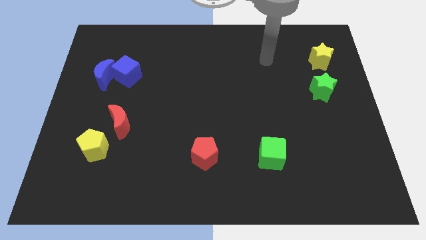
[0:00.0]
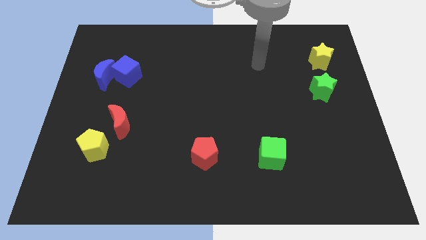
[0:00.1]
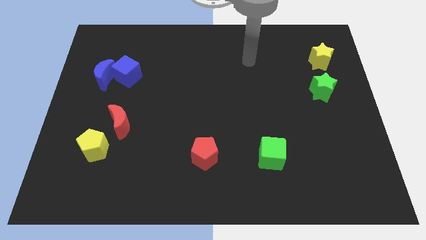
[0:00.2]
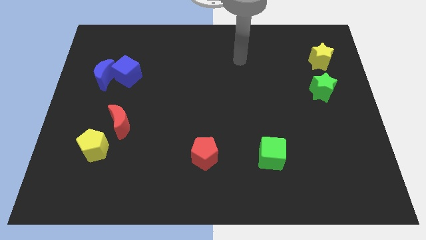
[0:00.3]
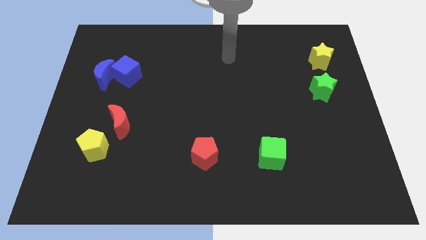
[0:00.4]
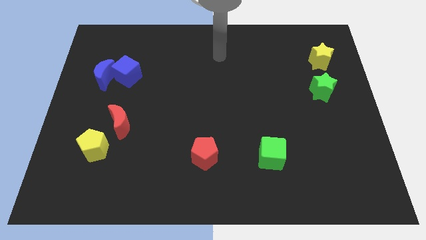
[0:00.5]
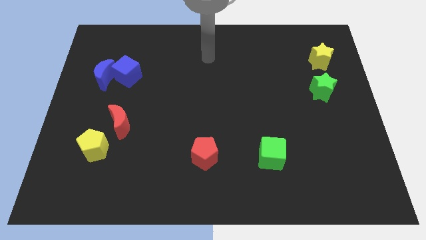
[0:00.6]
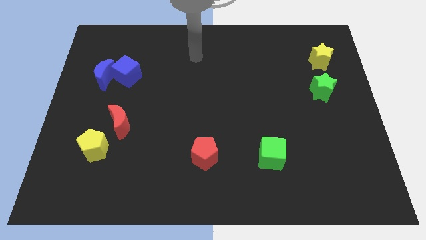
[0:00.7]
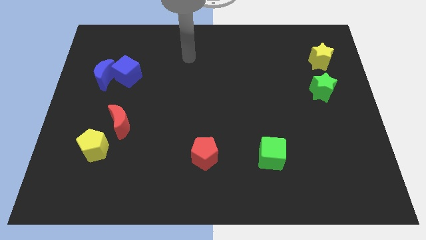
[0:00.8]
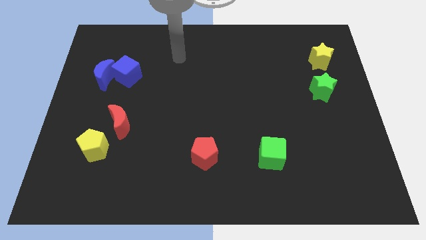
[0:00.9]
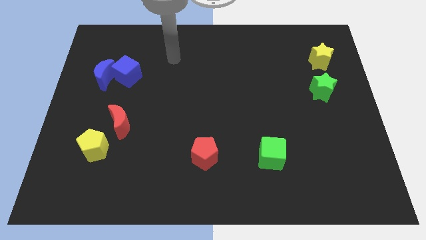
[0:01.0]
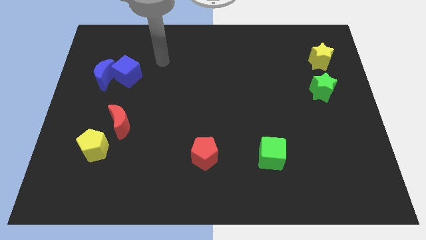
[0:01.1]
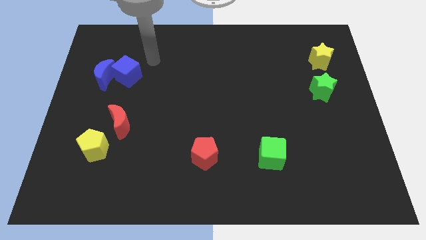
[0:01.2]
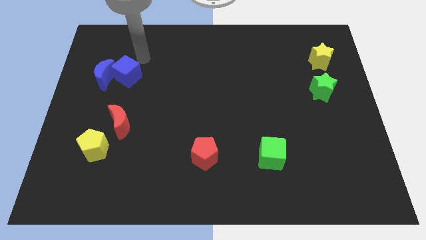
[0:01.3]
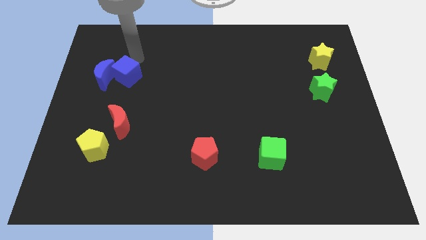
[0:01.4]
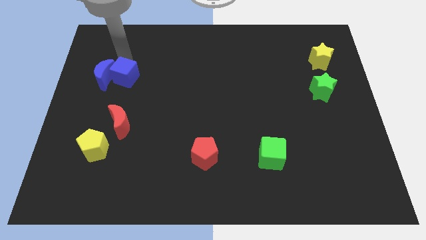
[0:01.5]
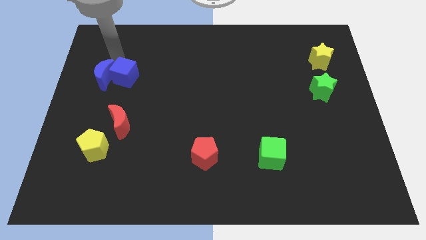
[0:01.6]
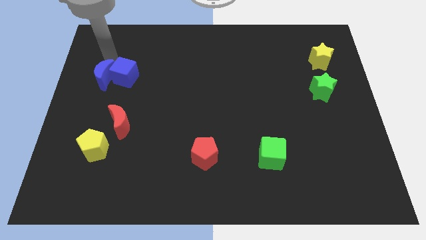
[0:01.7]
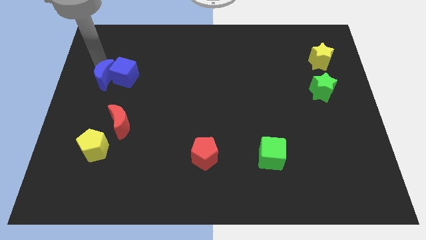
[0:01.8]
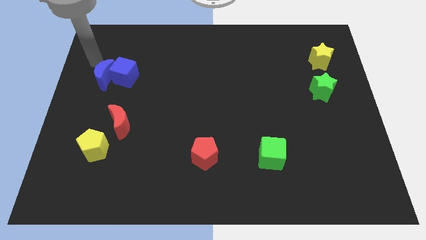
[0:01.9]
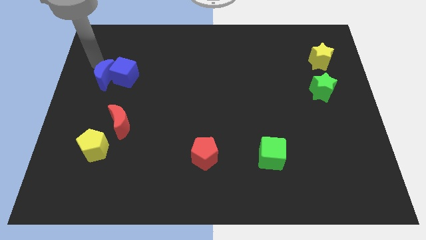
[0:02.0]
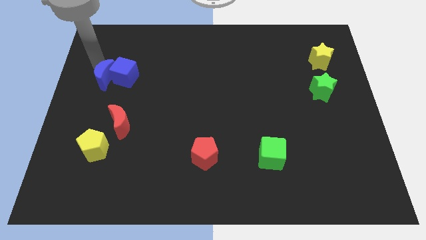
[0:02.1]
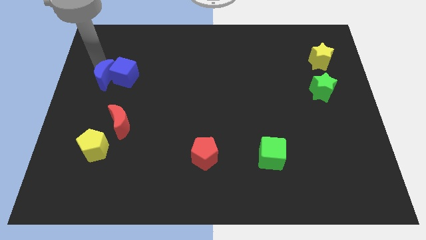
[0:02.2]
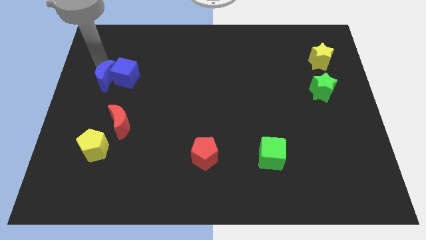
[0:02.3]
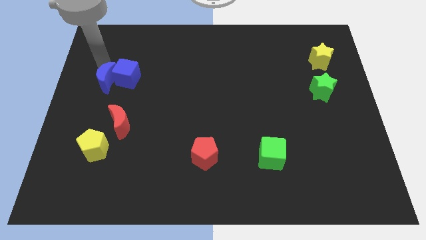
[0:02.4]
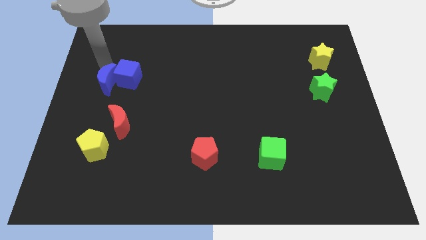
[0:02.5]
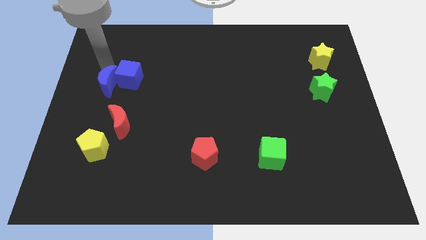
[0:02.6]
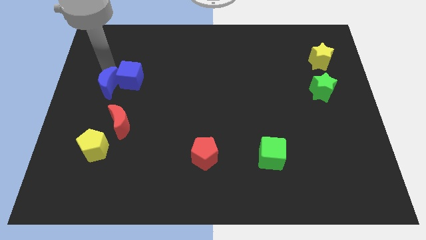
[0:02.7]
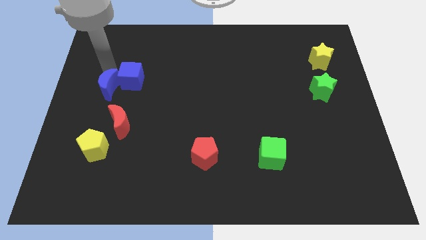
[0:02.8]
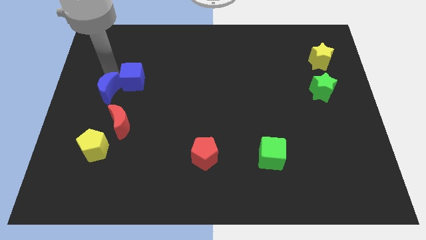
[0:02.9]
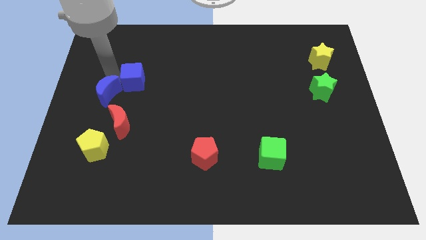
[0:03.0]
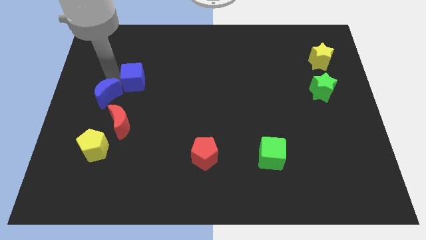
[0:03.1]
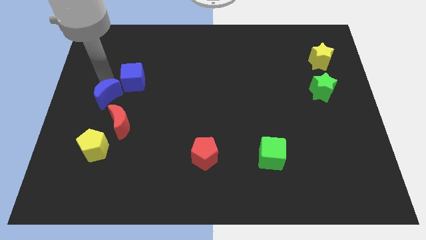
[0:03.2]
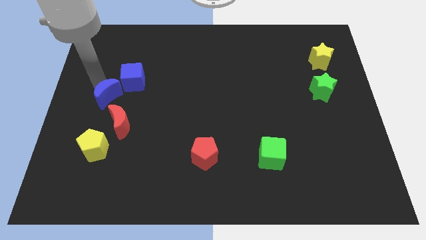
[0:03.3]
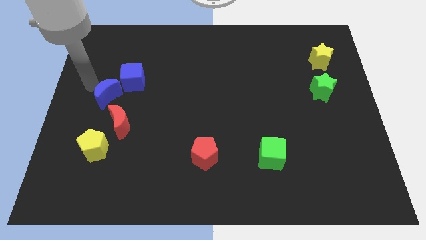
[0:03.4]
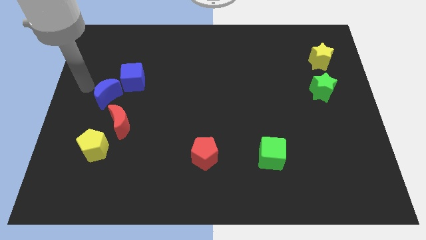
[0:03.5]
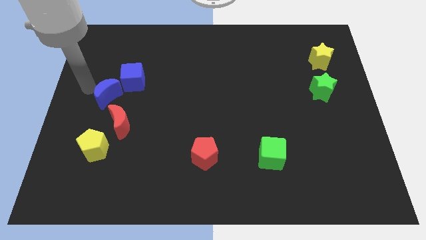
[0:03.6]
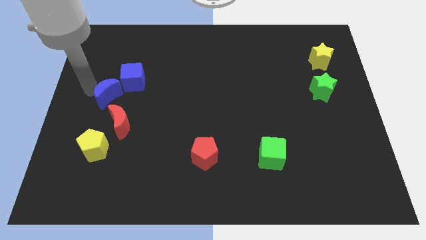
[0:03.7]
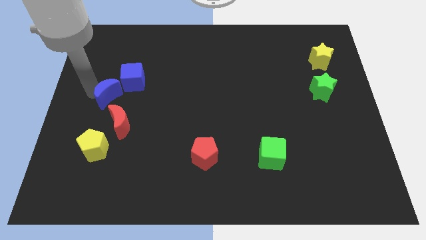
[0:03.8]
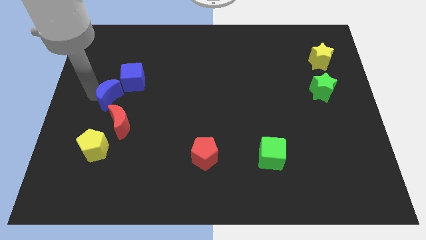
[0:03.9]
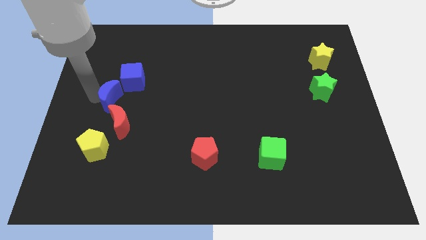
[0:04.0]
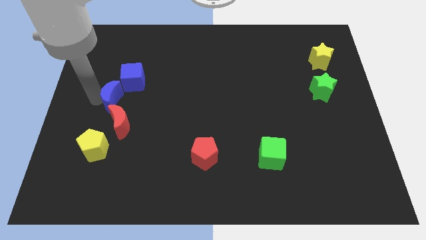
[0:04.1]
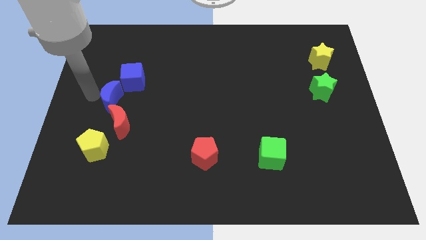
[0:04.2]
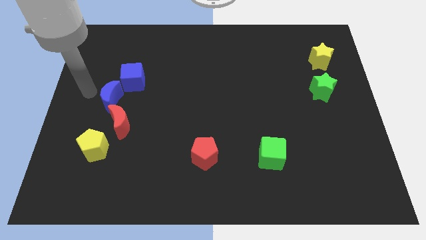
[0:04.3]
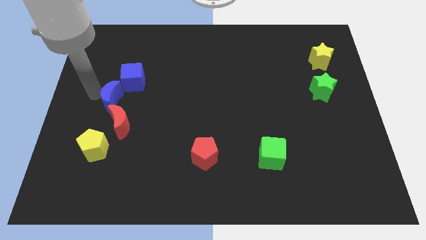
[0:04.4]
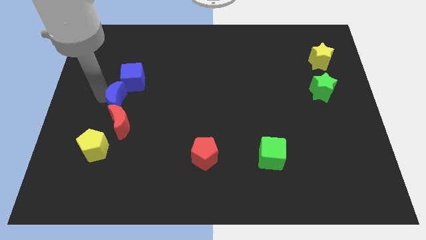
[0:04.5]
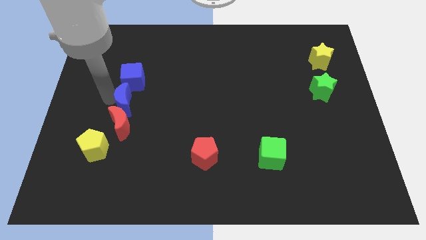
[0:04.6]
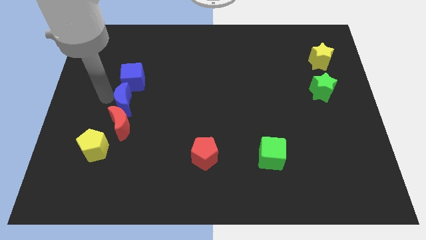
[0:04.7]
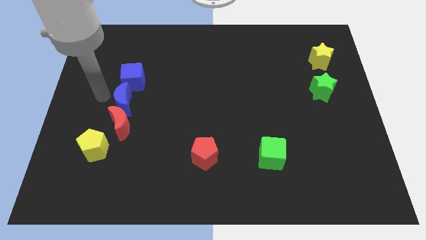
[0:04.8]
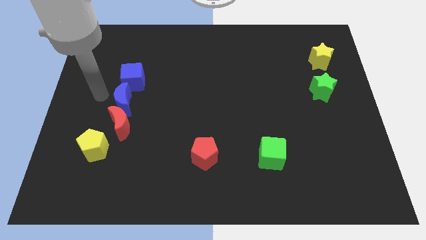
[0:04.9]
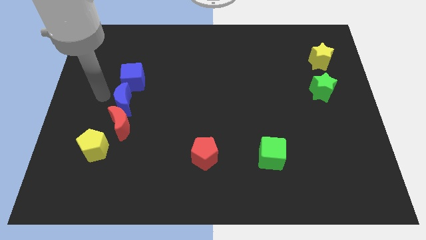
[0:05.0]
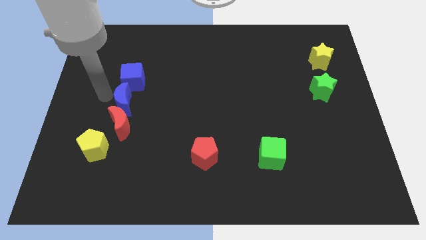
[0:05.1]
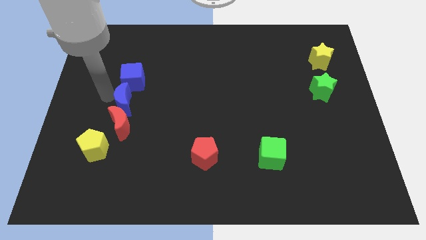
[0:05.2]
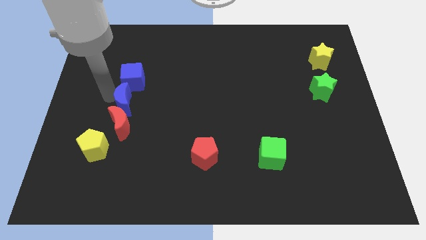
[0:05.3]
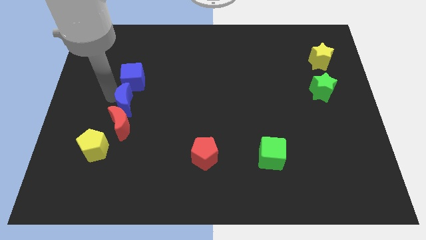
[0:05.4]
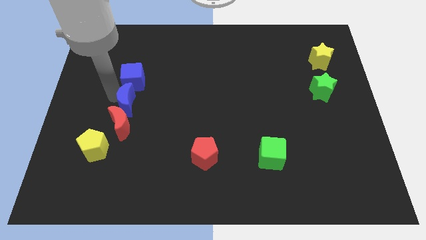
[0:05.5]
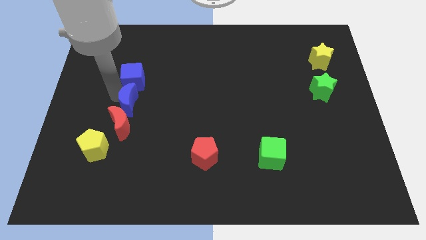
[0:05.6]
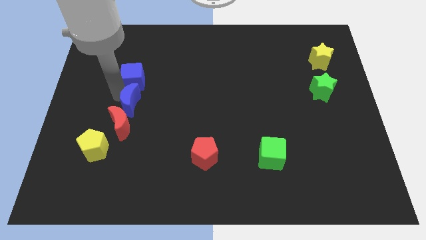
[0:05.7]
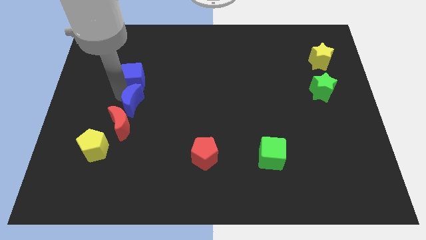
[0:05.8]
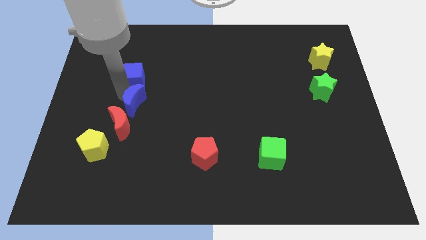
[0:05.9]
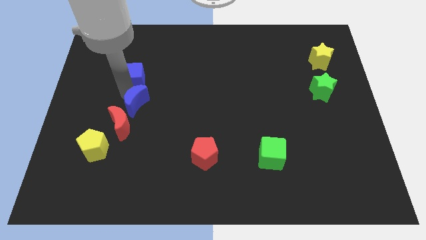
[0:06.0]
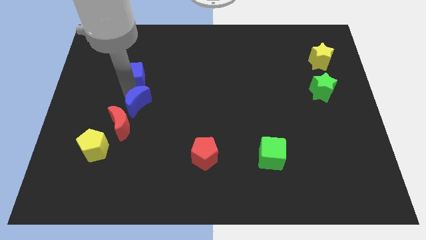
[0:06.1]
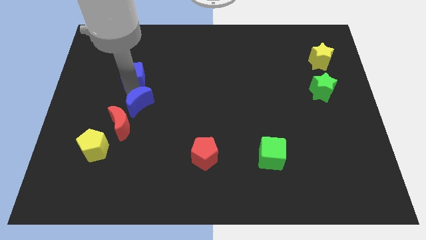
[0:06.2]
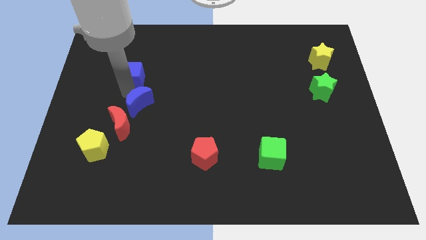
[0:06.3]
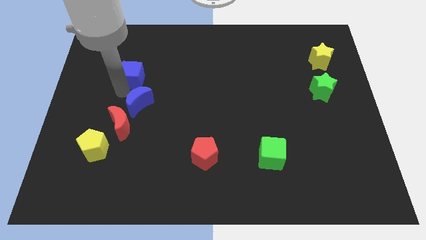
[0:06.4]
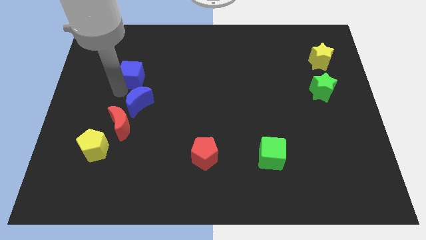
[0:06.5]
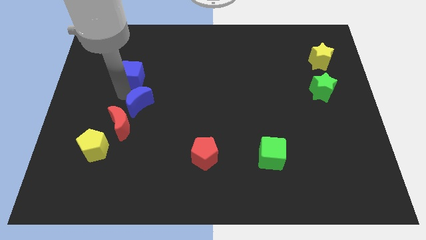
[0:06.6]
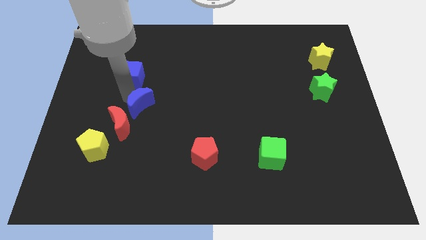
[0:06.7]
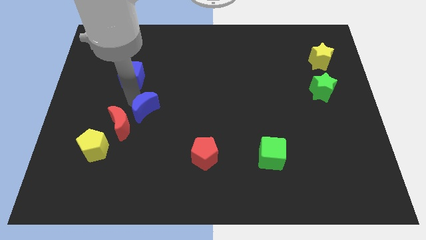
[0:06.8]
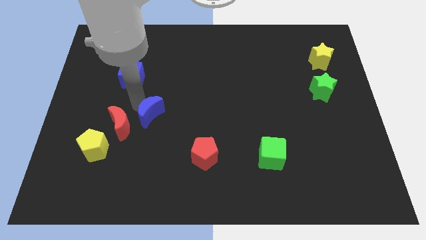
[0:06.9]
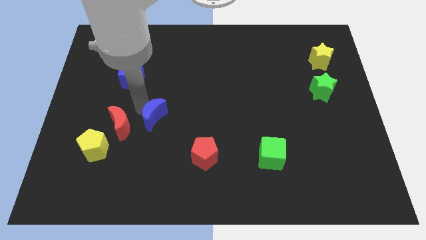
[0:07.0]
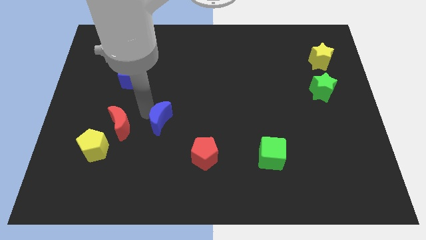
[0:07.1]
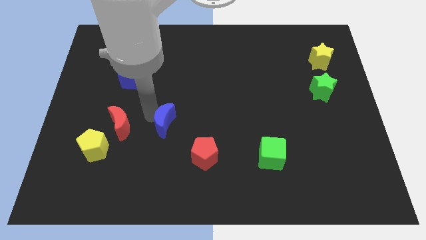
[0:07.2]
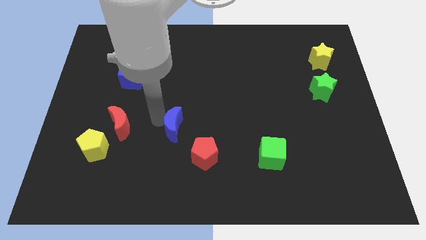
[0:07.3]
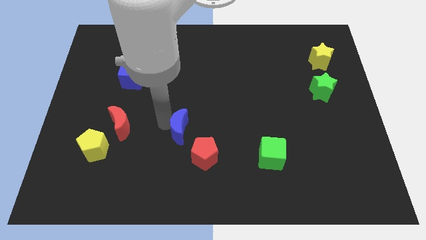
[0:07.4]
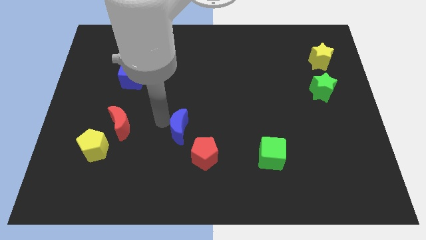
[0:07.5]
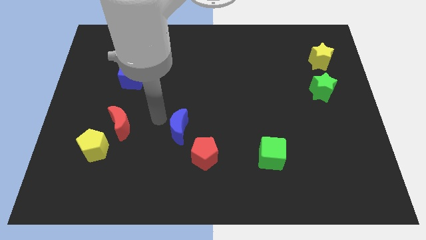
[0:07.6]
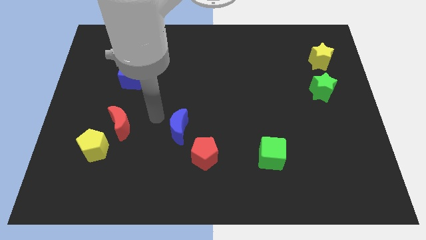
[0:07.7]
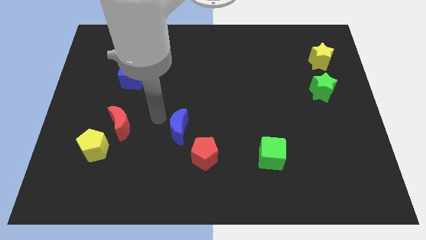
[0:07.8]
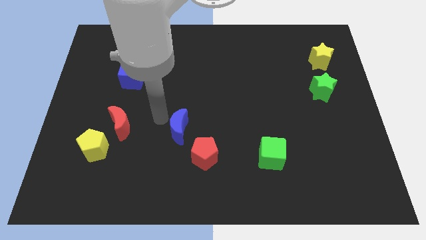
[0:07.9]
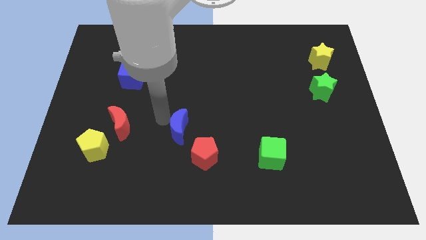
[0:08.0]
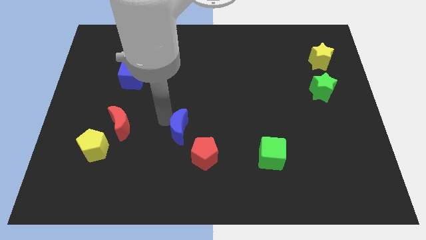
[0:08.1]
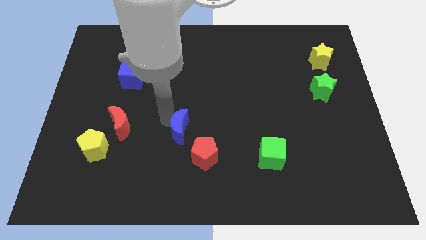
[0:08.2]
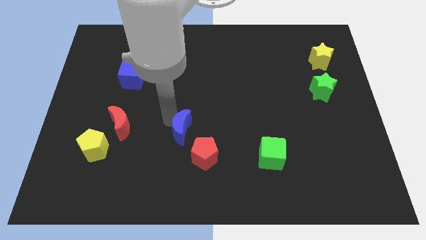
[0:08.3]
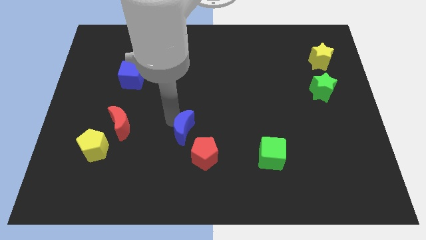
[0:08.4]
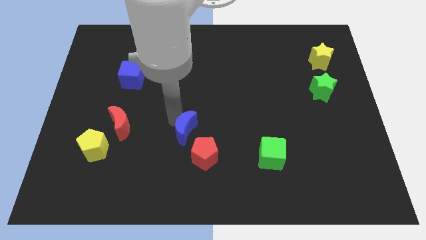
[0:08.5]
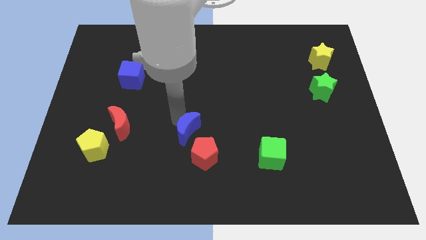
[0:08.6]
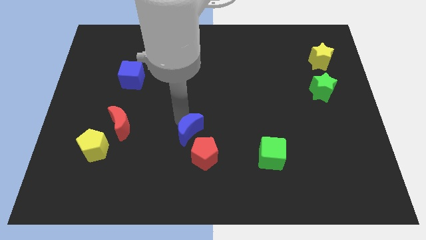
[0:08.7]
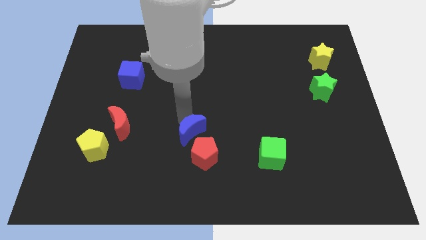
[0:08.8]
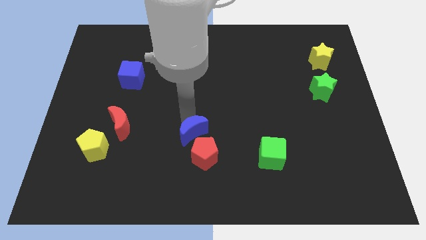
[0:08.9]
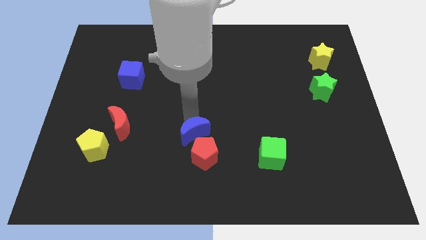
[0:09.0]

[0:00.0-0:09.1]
move the blue moon towards the red pentagon
